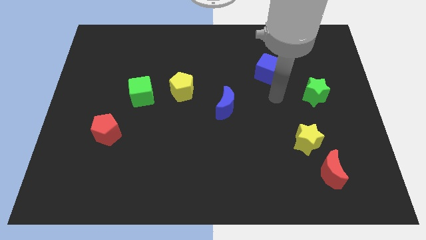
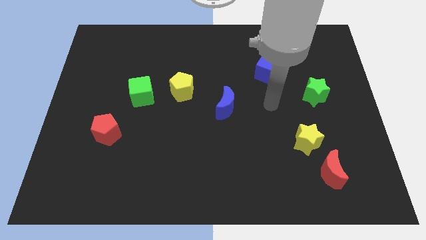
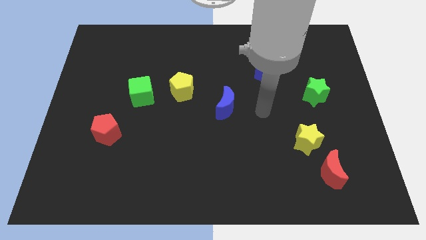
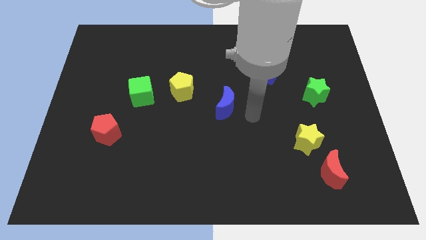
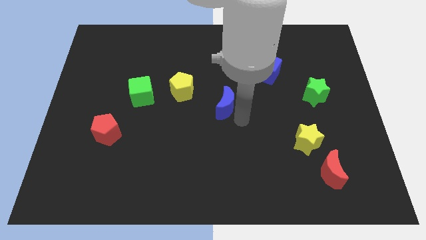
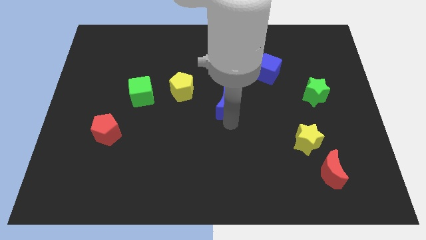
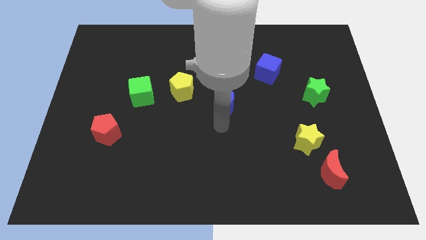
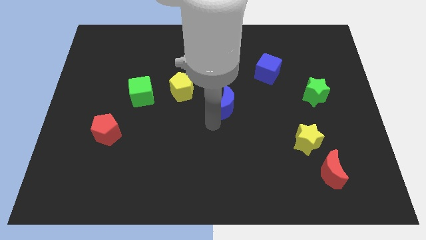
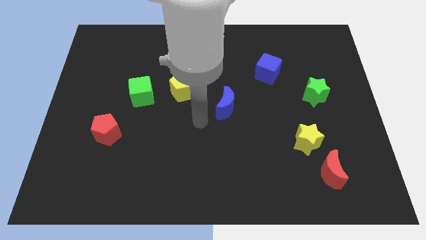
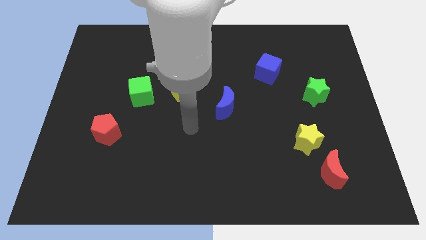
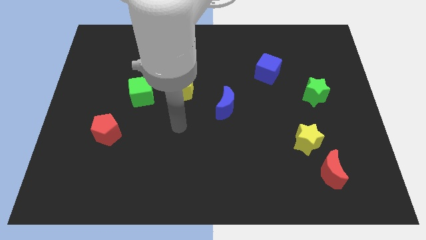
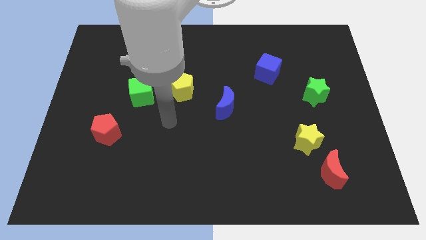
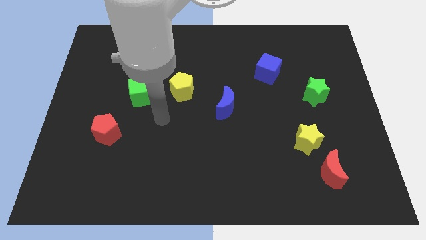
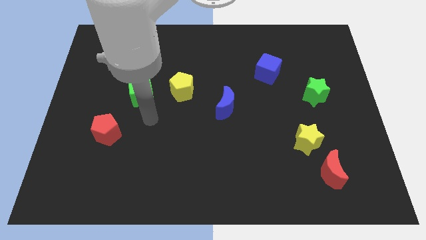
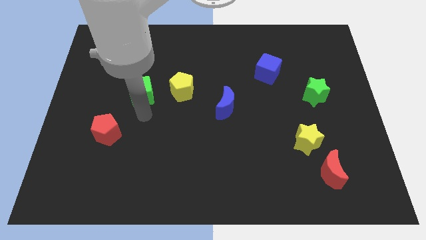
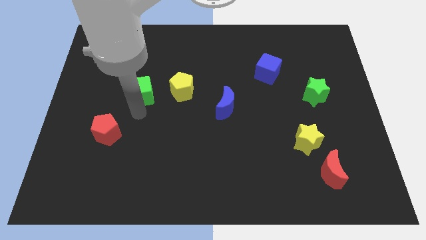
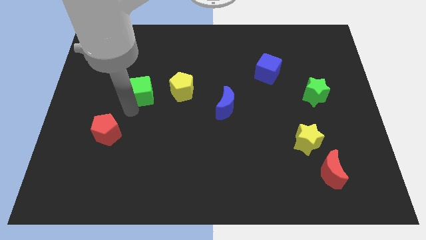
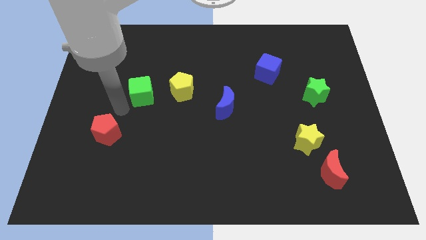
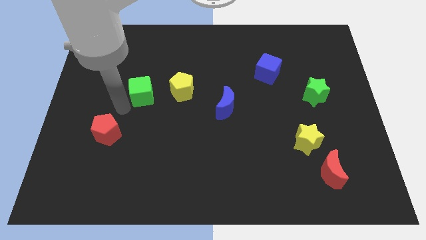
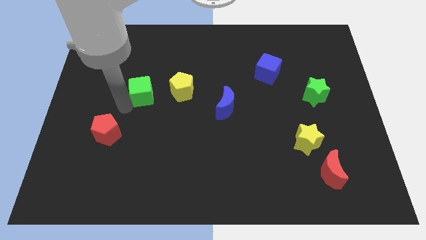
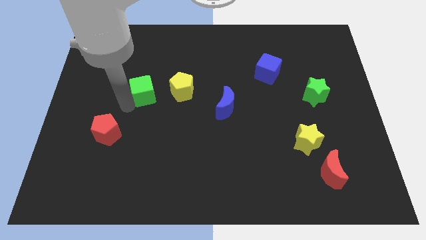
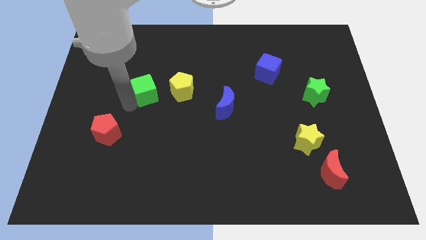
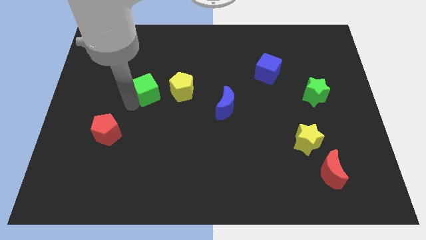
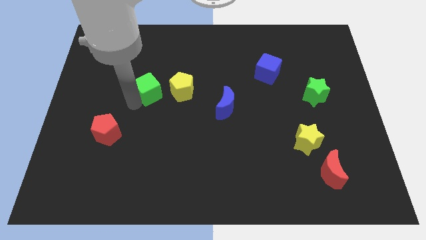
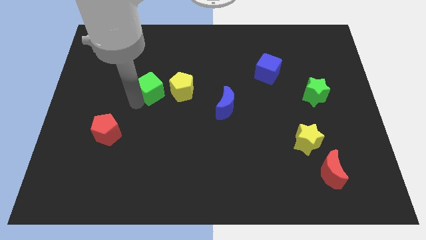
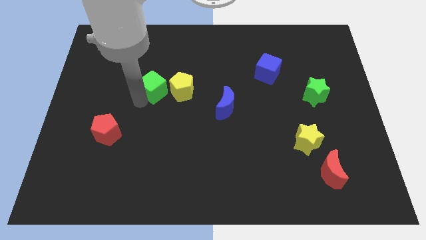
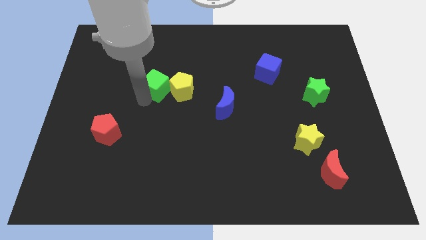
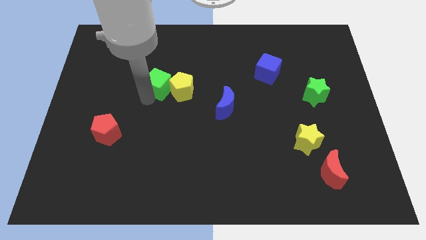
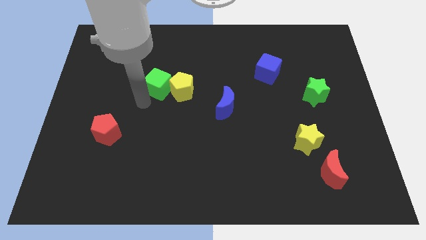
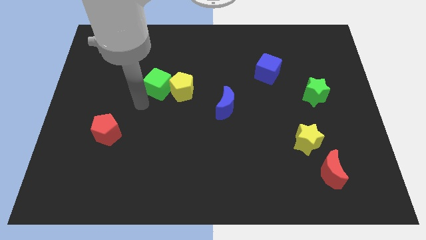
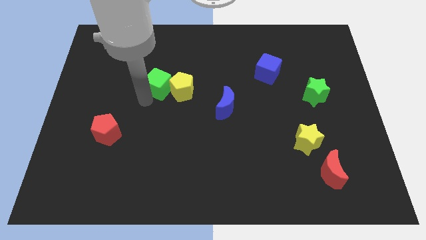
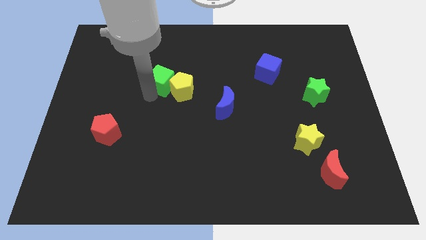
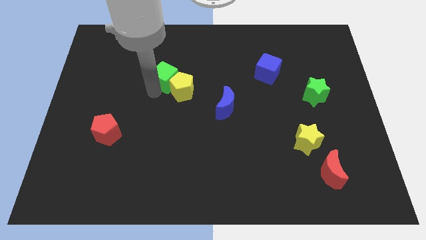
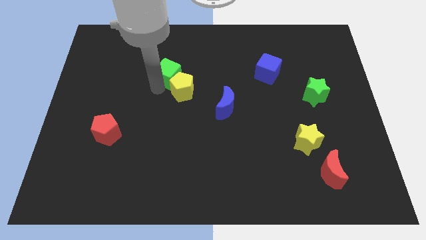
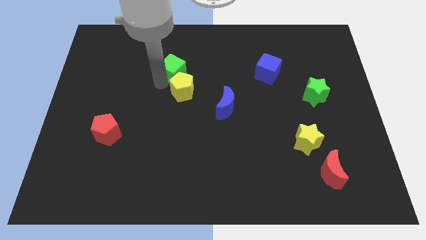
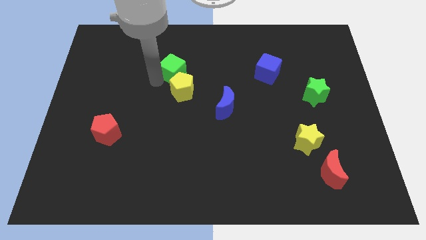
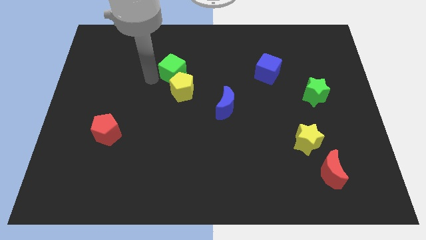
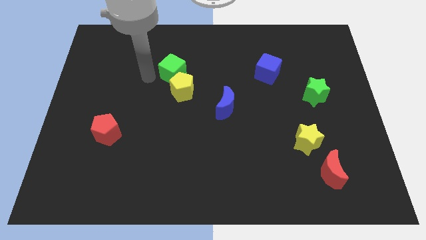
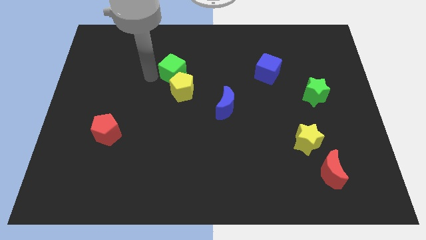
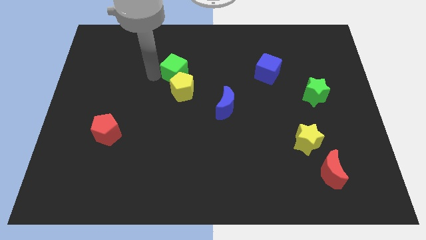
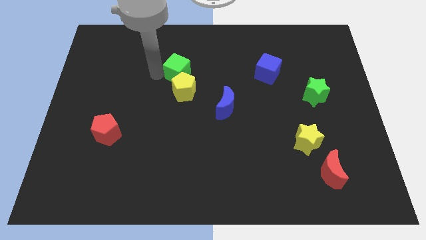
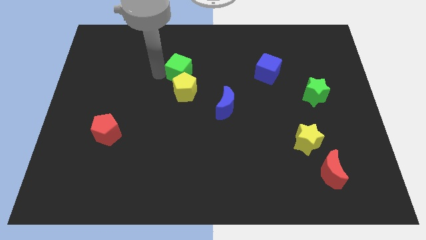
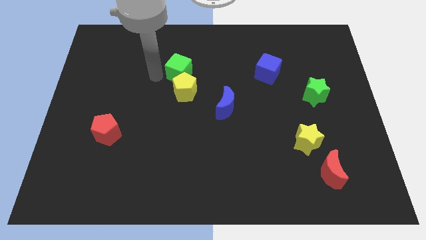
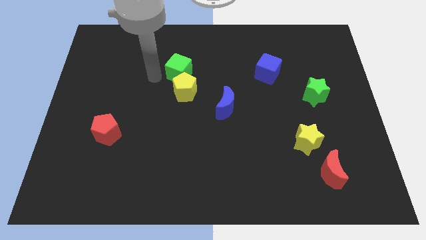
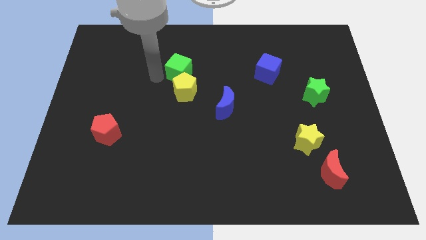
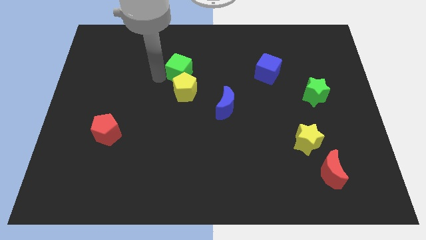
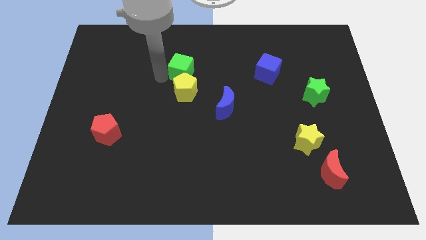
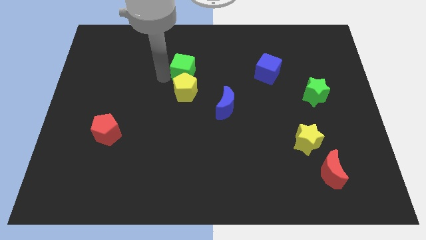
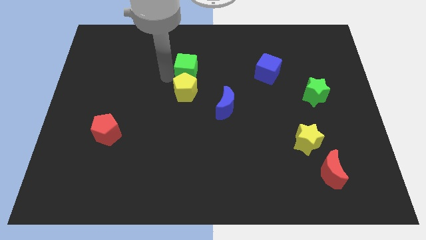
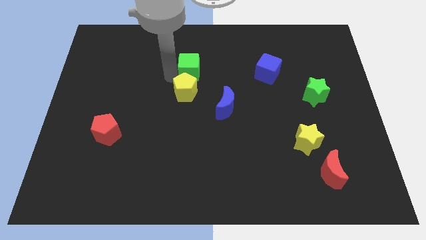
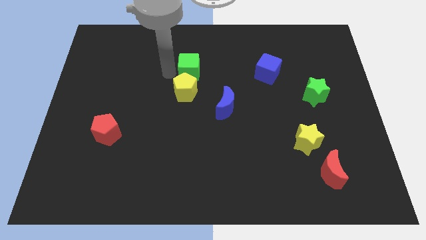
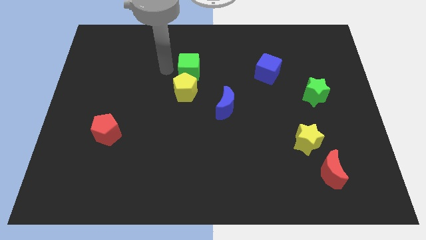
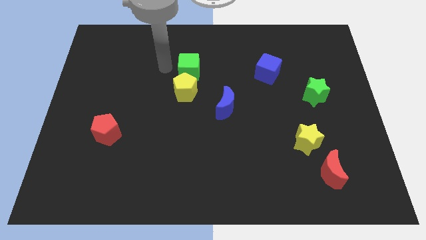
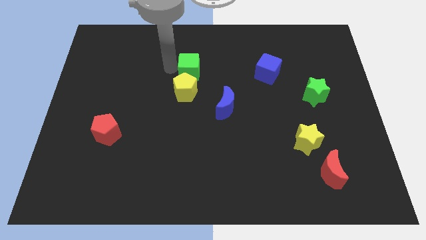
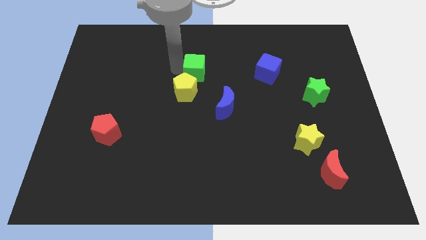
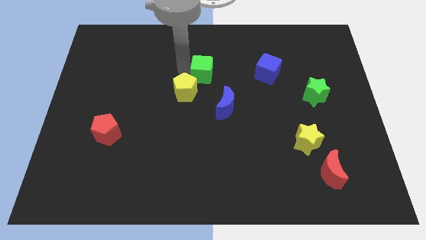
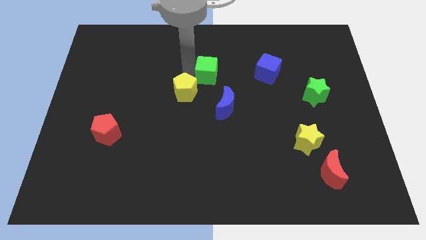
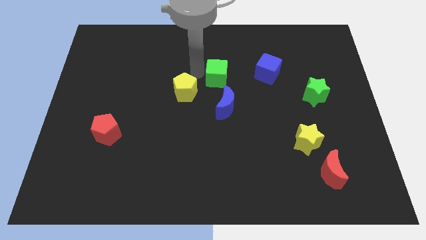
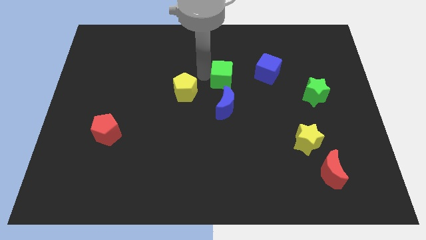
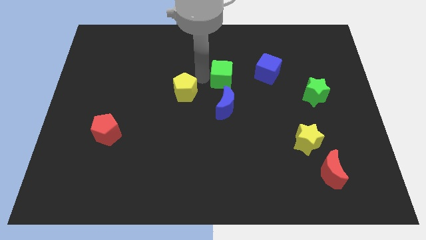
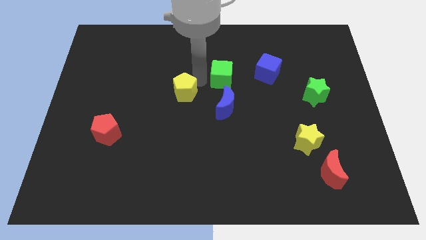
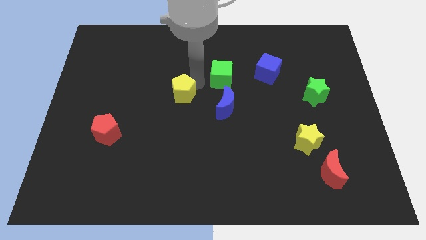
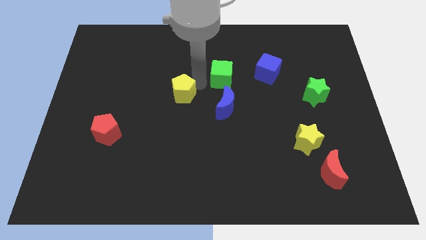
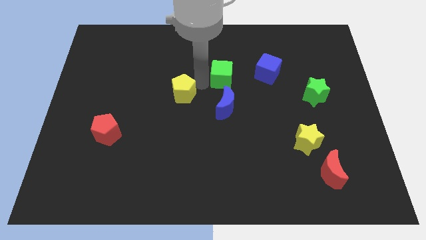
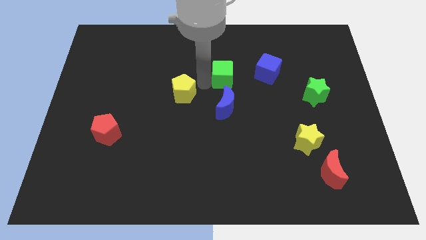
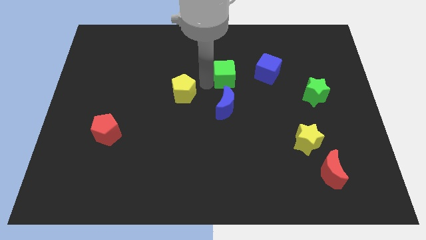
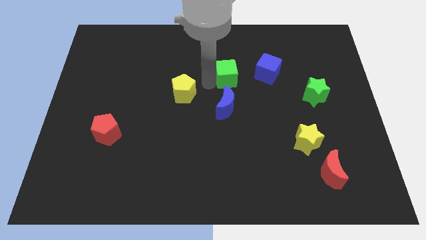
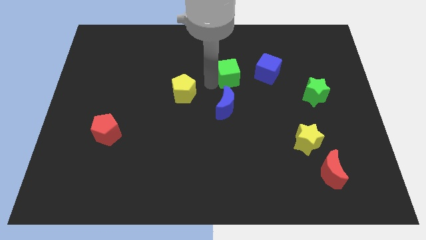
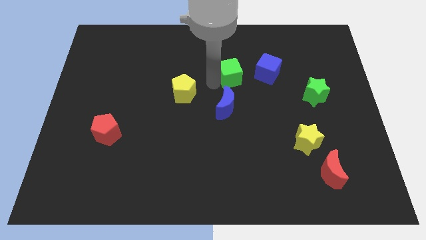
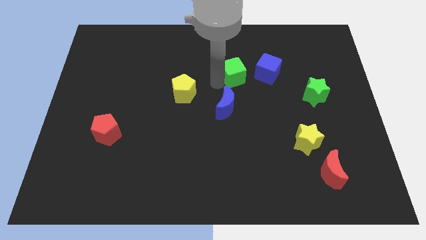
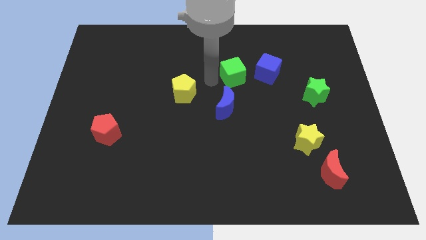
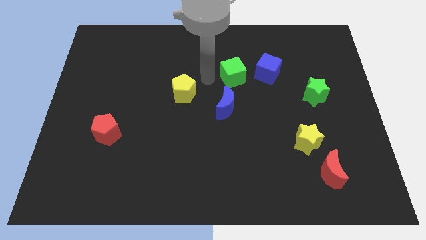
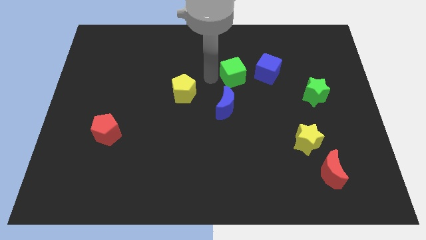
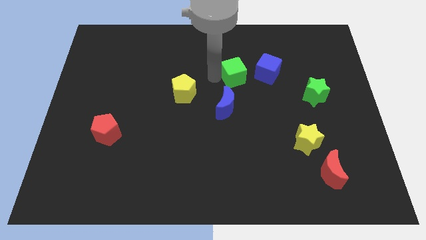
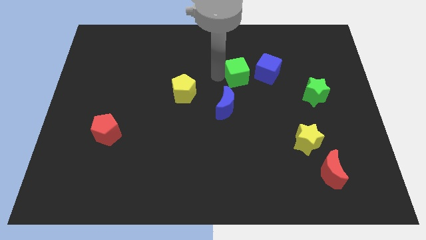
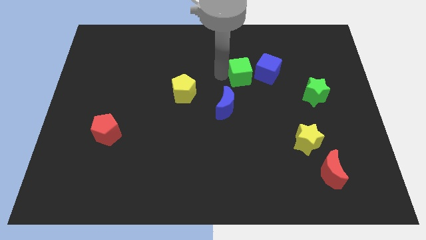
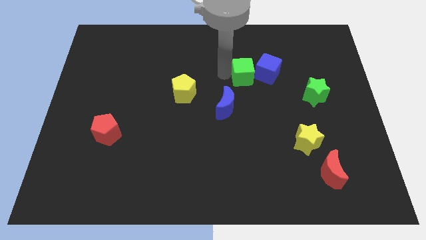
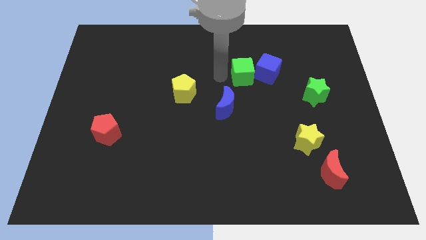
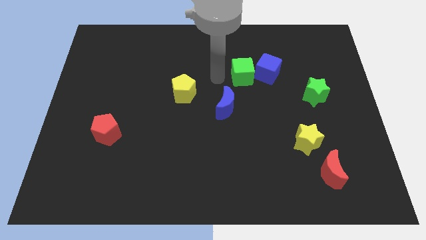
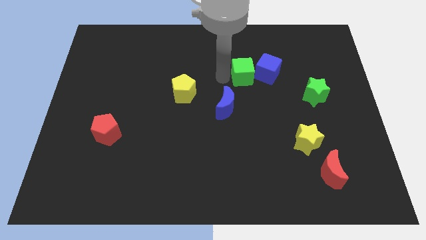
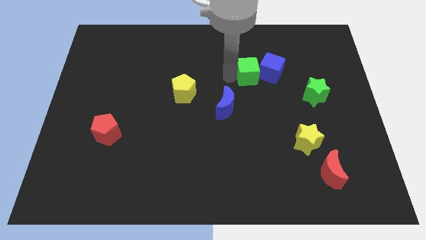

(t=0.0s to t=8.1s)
slide the green cube to the blue cube

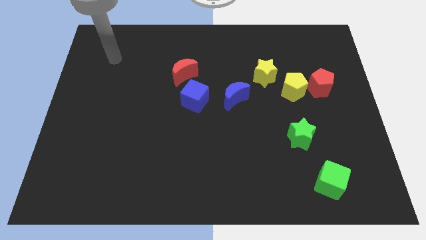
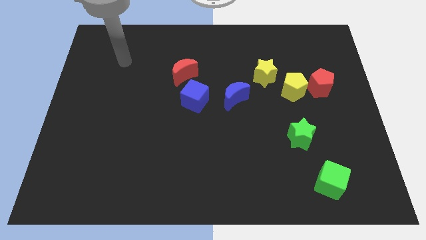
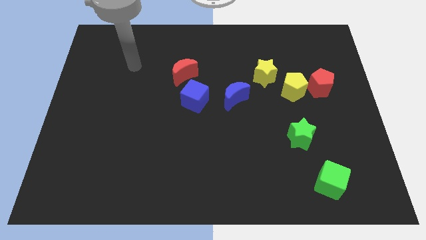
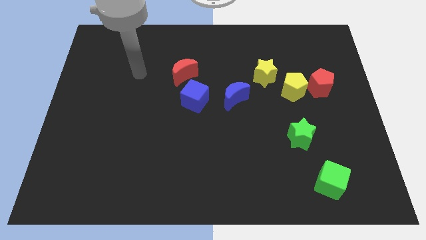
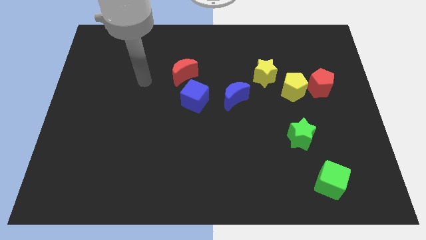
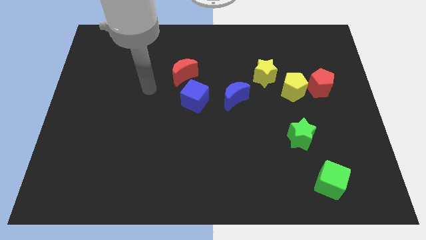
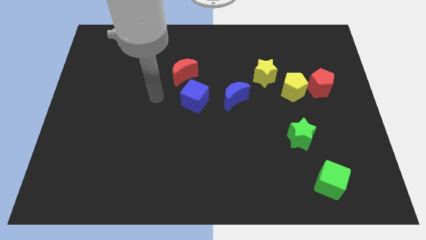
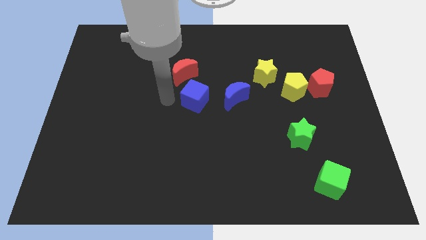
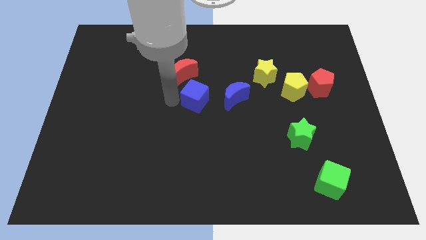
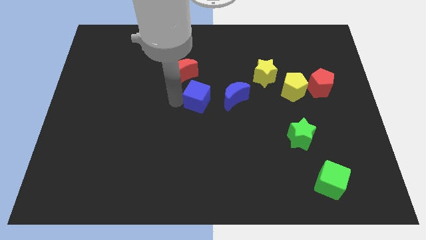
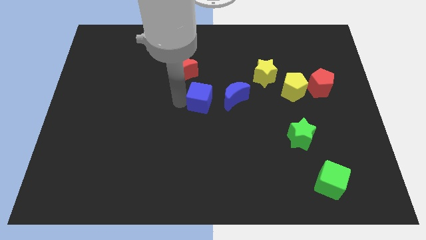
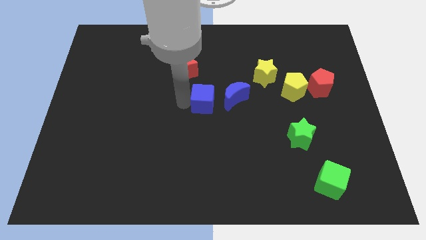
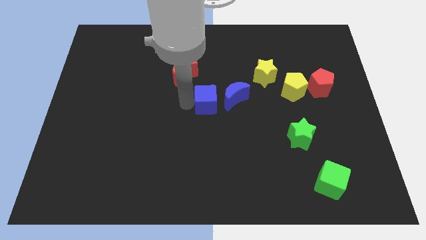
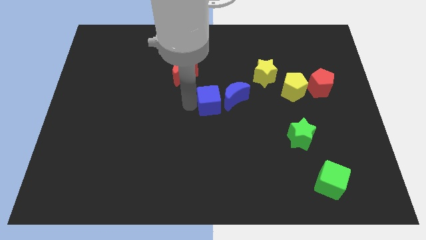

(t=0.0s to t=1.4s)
put the blue cube next to the blue moon
